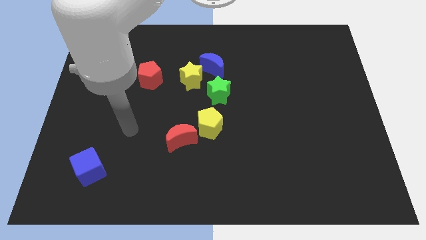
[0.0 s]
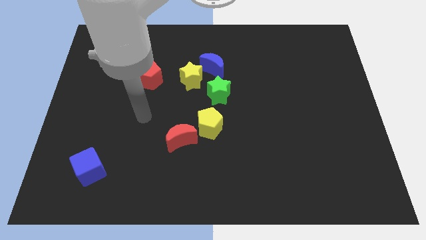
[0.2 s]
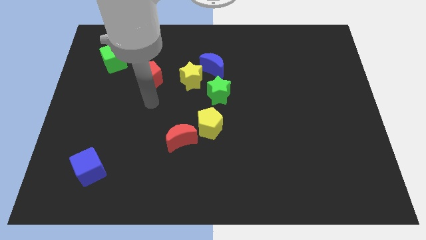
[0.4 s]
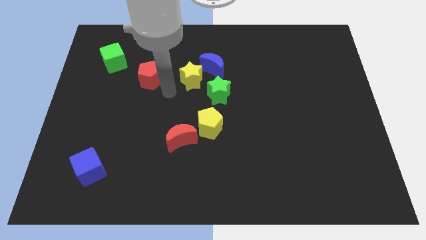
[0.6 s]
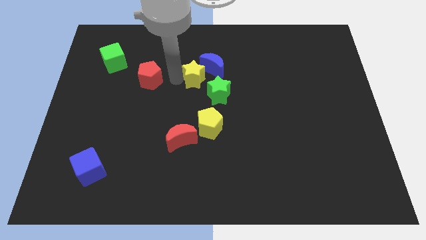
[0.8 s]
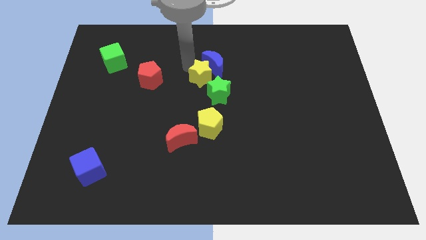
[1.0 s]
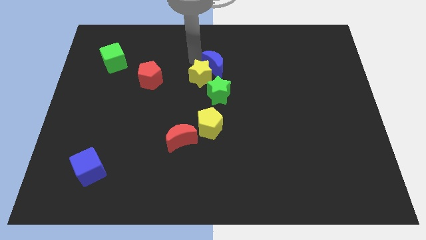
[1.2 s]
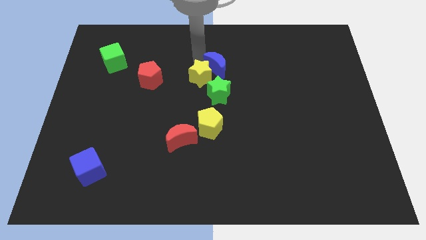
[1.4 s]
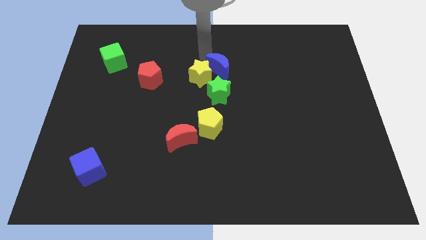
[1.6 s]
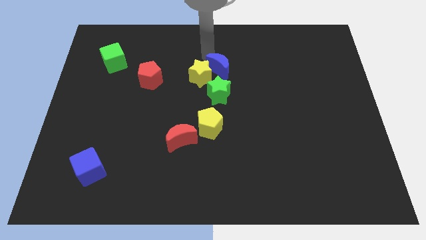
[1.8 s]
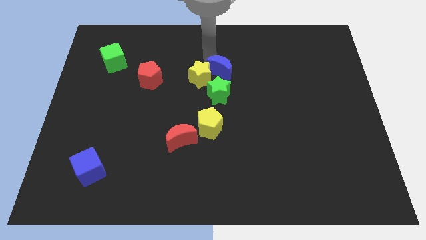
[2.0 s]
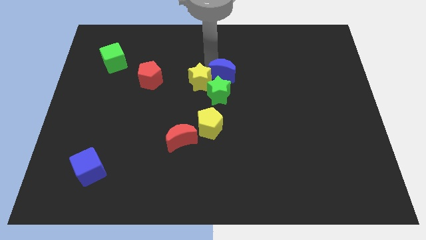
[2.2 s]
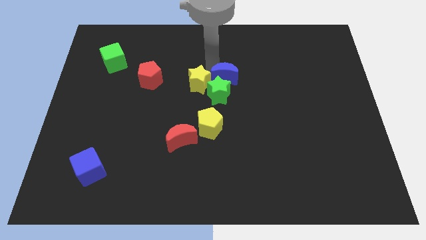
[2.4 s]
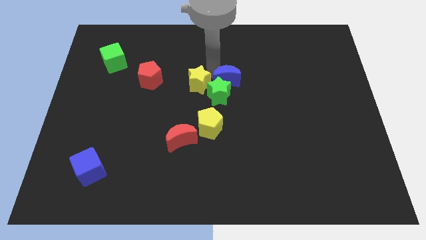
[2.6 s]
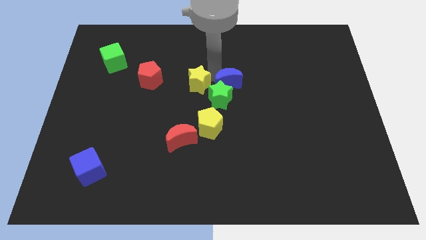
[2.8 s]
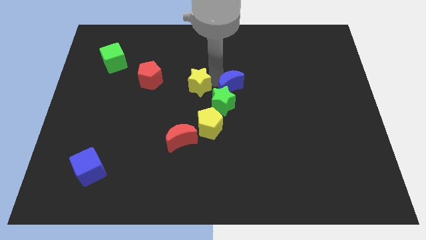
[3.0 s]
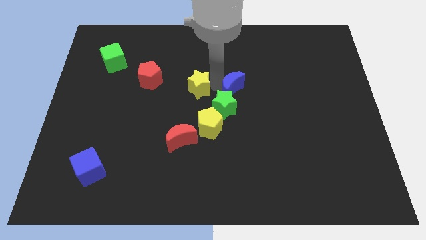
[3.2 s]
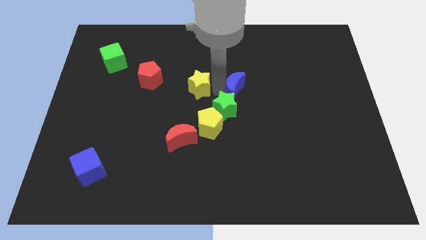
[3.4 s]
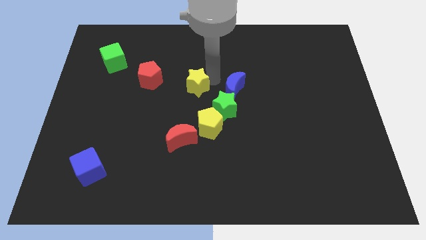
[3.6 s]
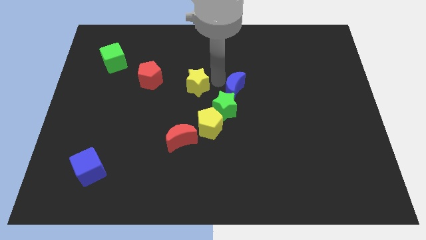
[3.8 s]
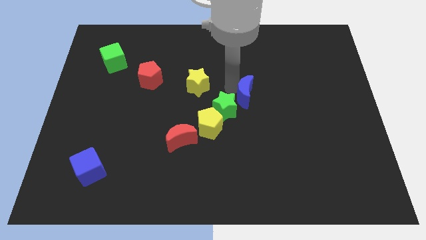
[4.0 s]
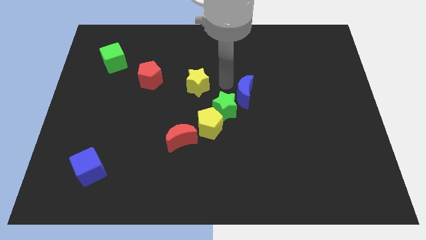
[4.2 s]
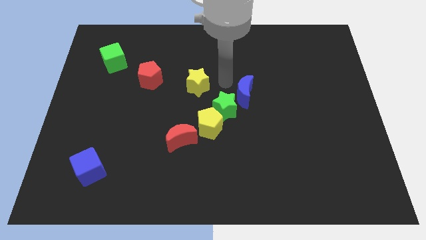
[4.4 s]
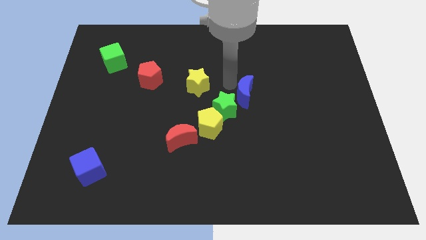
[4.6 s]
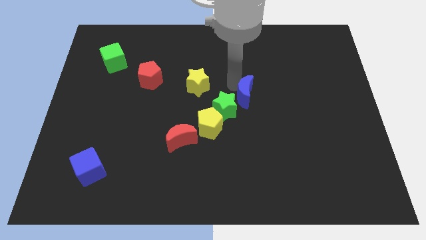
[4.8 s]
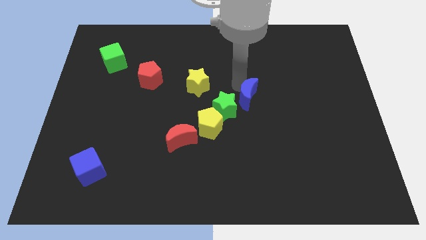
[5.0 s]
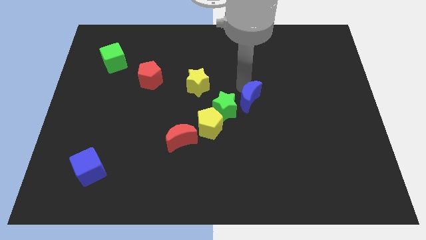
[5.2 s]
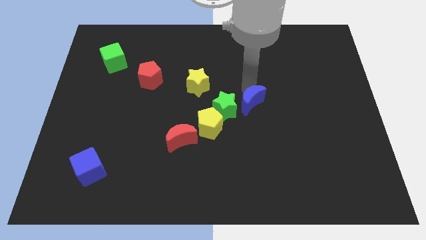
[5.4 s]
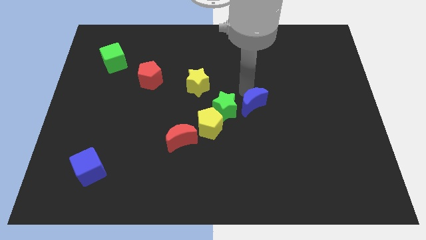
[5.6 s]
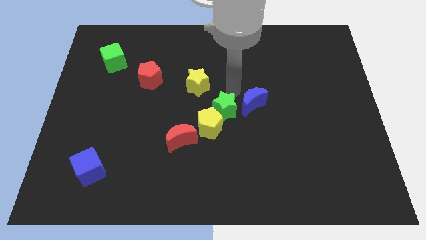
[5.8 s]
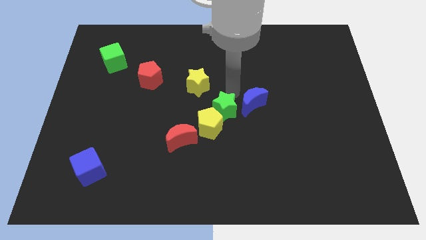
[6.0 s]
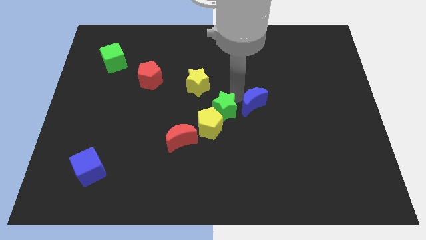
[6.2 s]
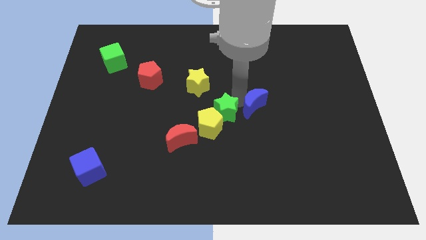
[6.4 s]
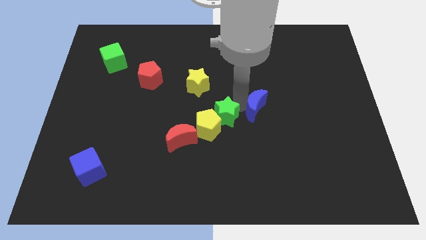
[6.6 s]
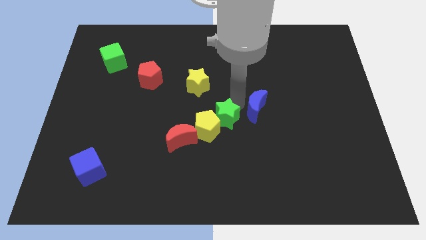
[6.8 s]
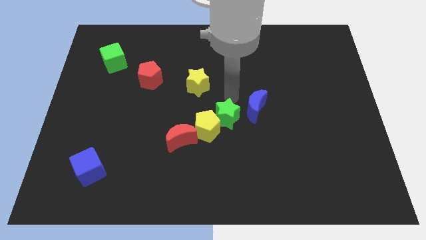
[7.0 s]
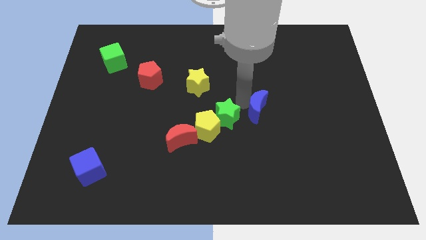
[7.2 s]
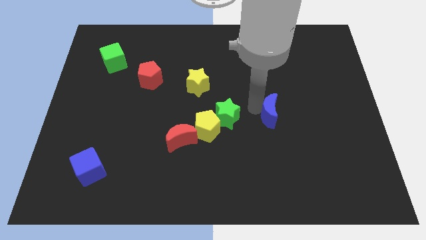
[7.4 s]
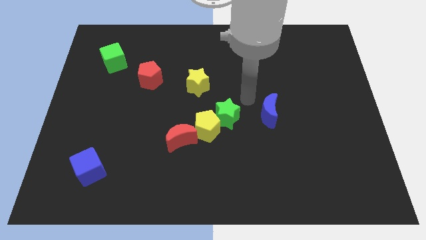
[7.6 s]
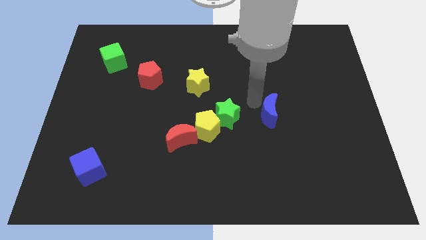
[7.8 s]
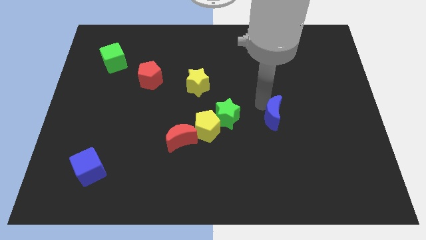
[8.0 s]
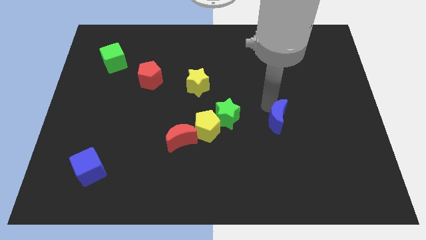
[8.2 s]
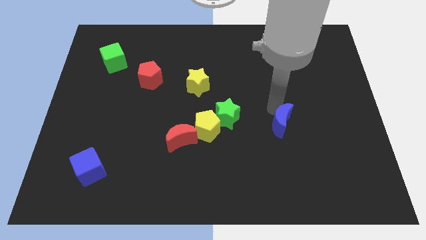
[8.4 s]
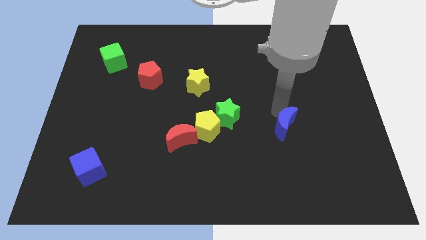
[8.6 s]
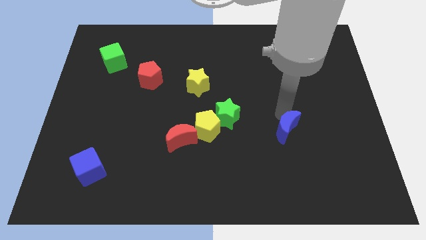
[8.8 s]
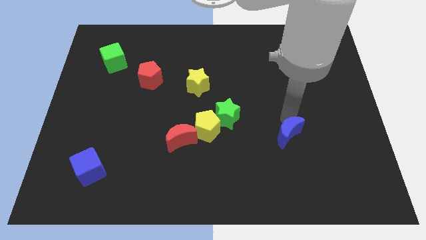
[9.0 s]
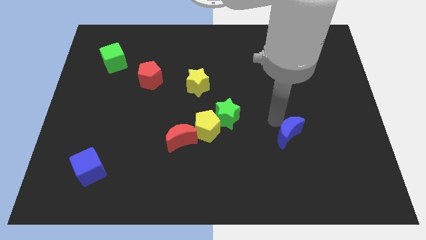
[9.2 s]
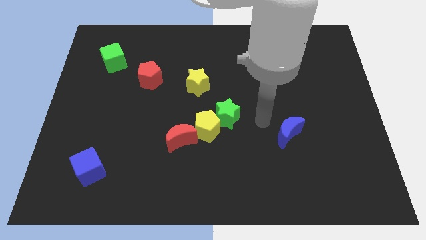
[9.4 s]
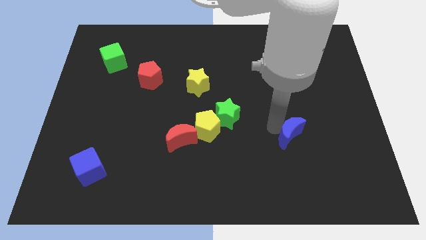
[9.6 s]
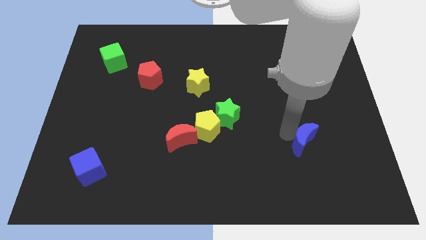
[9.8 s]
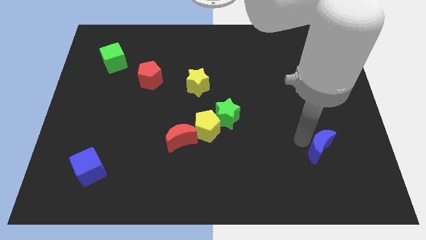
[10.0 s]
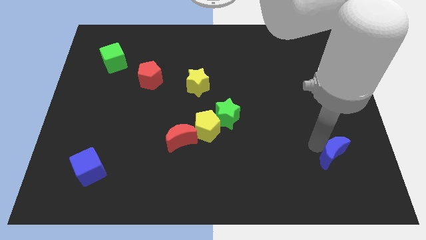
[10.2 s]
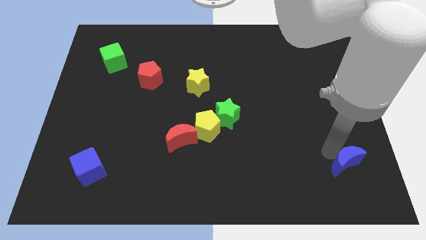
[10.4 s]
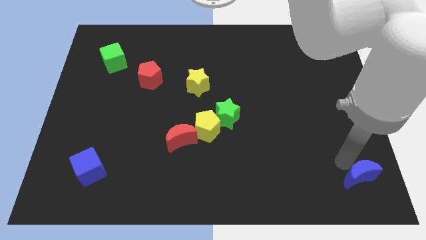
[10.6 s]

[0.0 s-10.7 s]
move the blue moon to the lower right corner

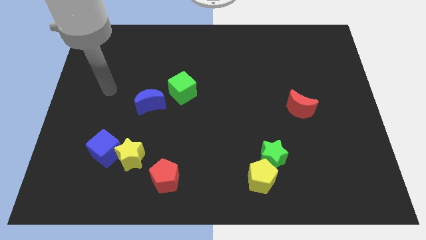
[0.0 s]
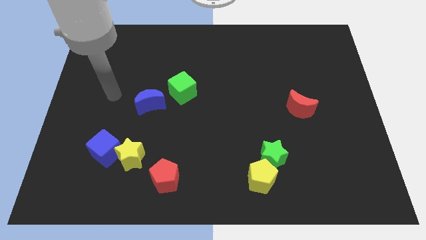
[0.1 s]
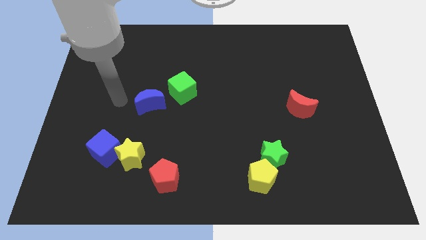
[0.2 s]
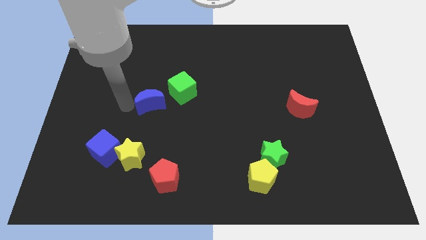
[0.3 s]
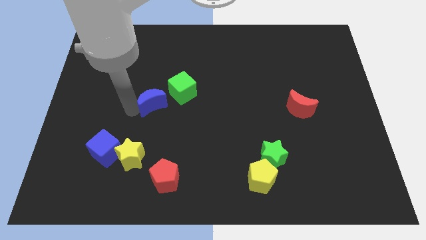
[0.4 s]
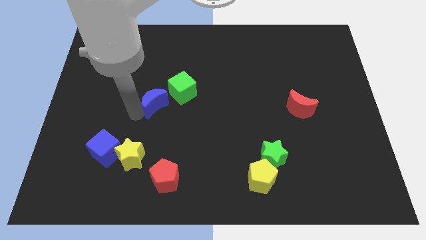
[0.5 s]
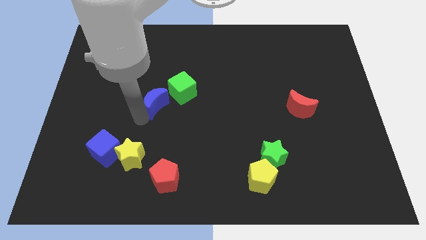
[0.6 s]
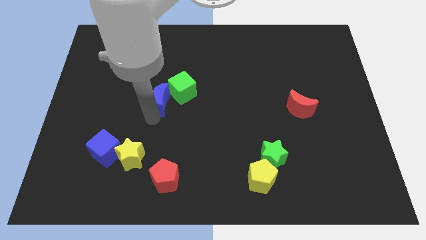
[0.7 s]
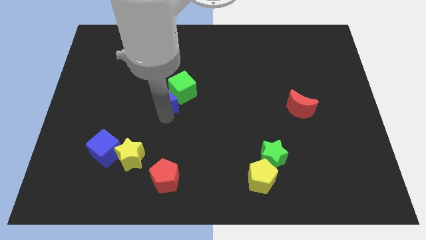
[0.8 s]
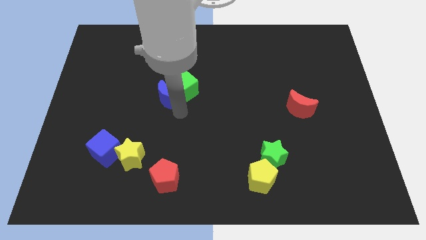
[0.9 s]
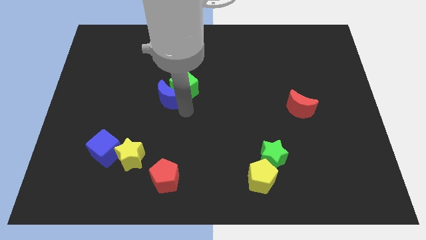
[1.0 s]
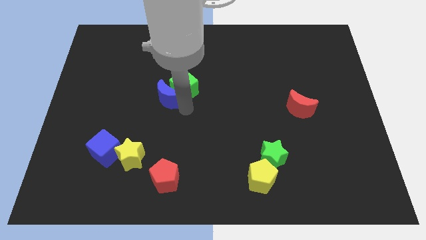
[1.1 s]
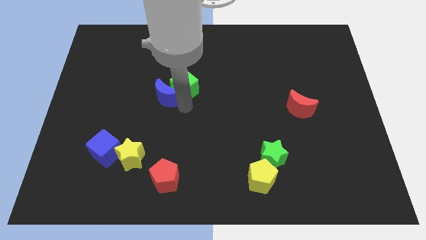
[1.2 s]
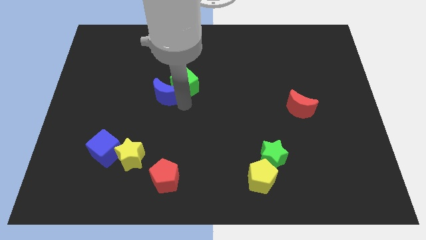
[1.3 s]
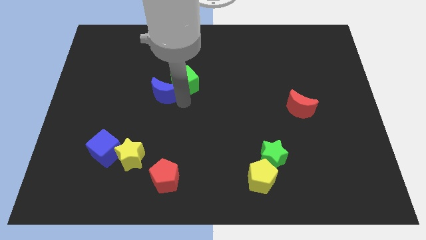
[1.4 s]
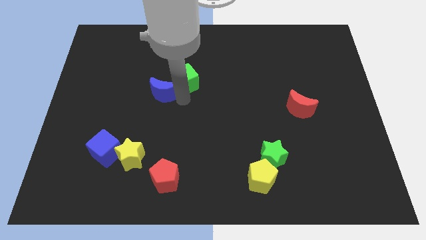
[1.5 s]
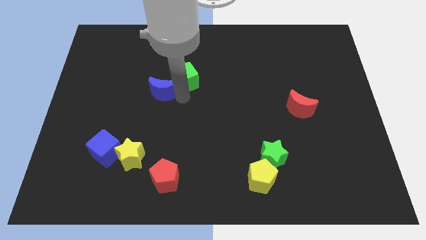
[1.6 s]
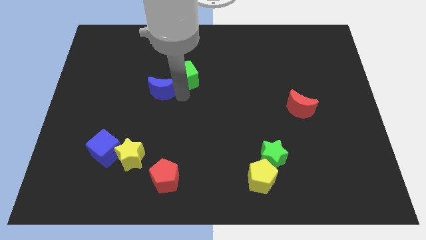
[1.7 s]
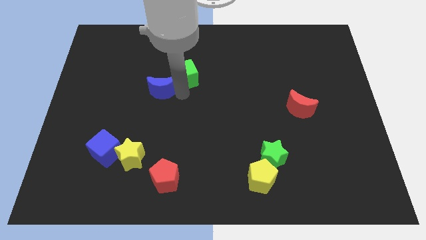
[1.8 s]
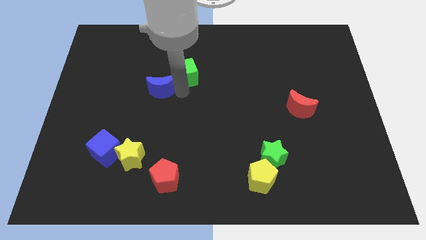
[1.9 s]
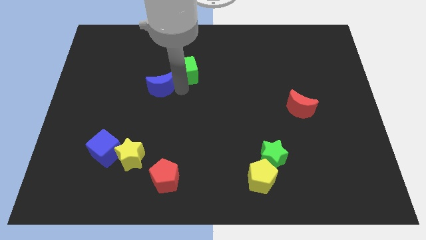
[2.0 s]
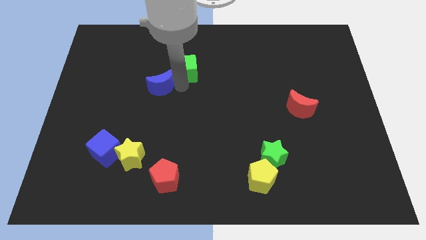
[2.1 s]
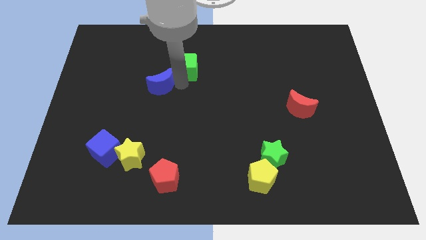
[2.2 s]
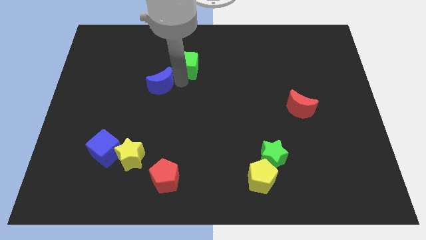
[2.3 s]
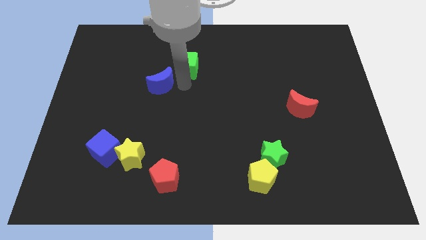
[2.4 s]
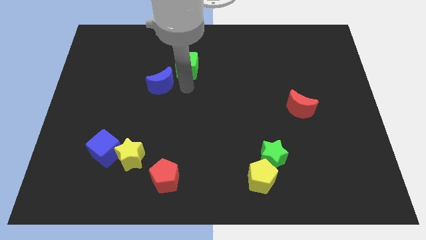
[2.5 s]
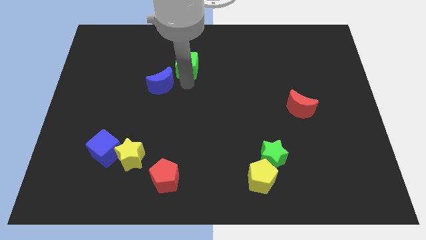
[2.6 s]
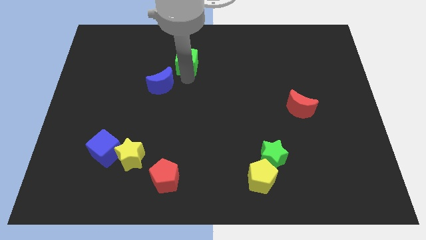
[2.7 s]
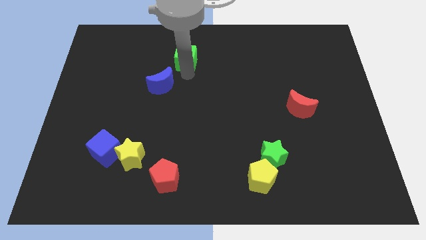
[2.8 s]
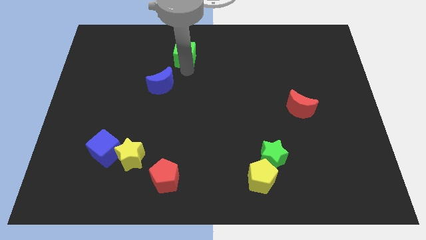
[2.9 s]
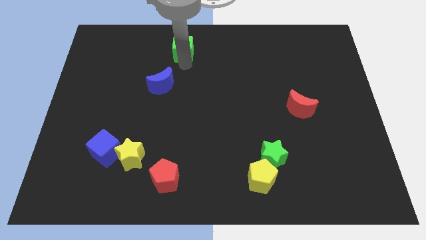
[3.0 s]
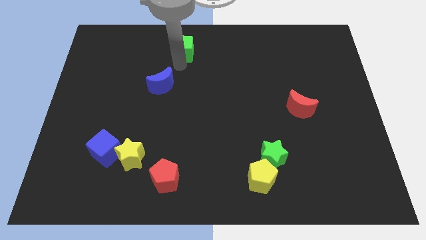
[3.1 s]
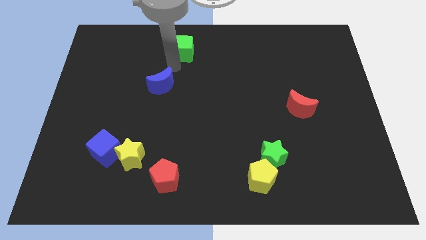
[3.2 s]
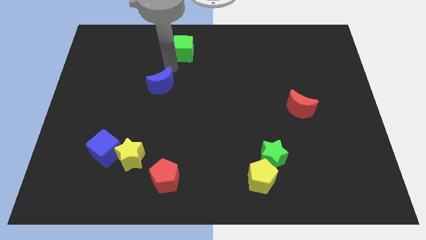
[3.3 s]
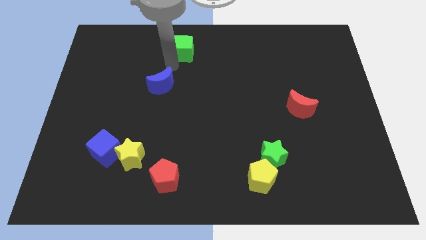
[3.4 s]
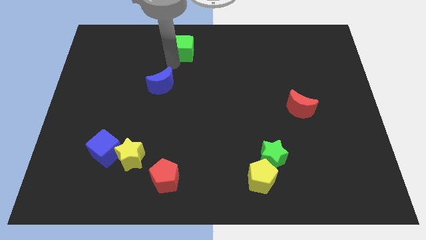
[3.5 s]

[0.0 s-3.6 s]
slide the green cube to the towards your base
